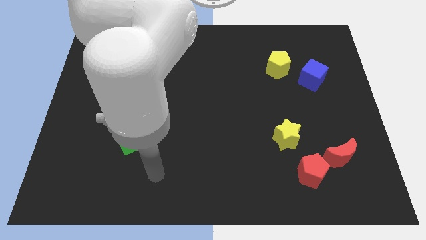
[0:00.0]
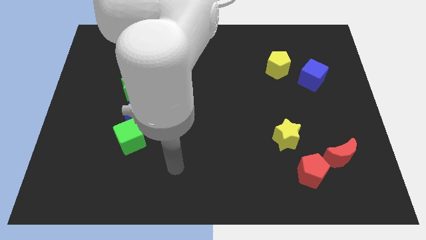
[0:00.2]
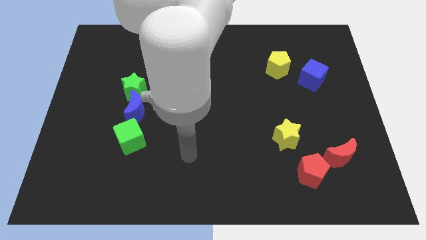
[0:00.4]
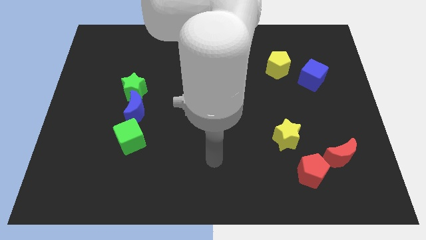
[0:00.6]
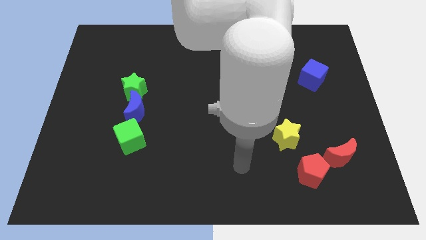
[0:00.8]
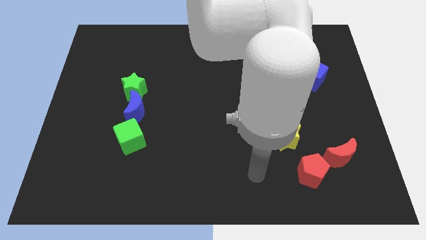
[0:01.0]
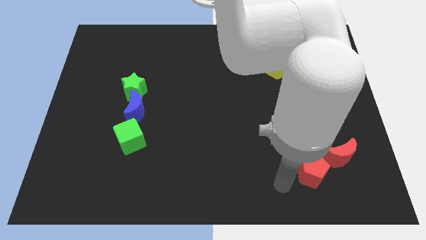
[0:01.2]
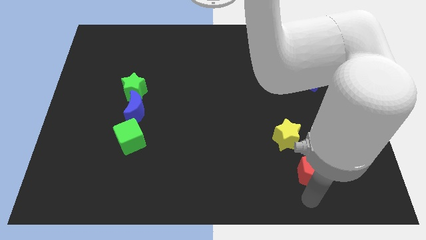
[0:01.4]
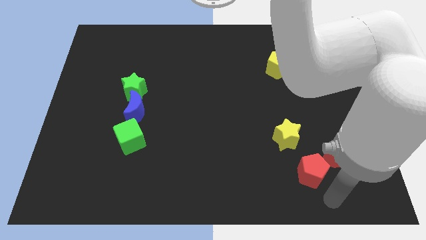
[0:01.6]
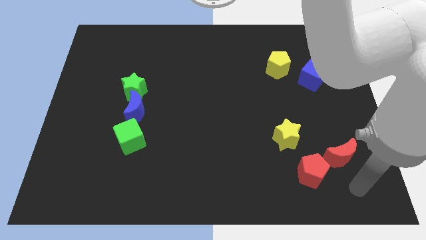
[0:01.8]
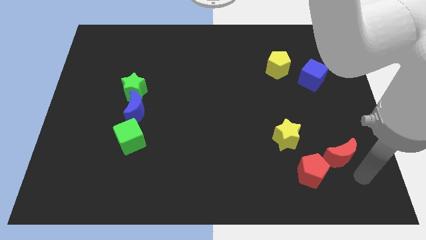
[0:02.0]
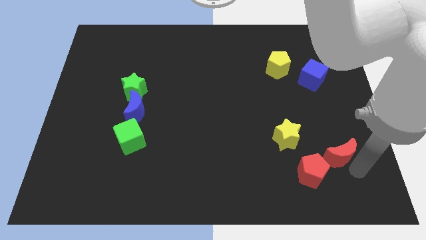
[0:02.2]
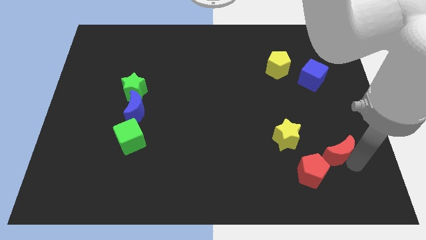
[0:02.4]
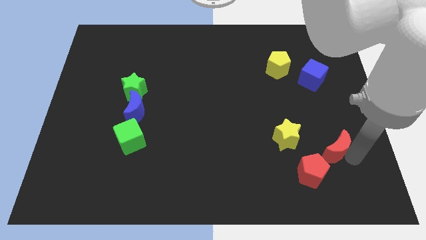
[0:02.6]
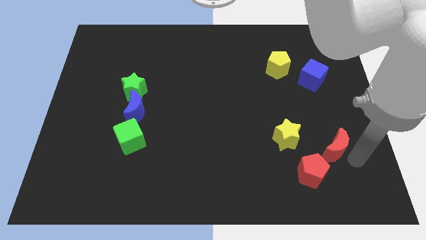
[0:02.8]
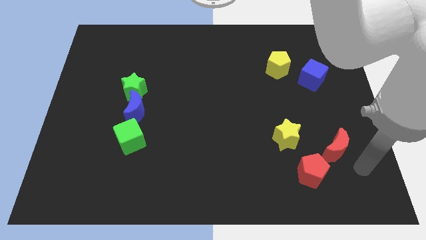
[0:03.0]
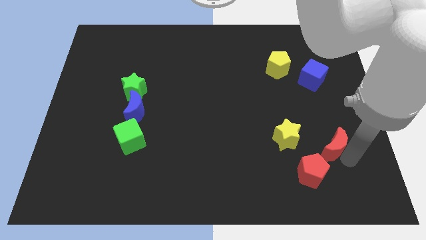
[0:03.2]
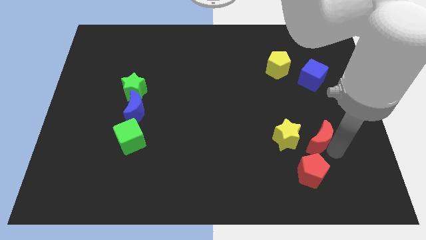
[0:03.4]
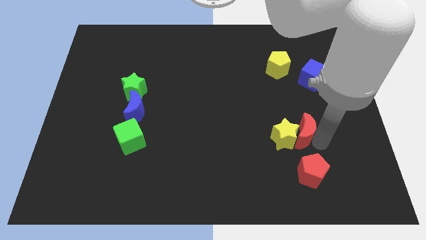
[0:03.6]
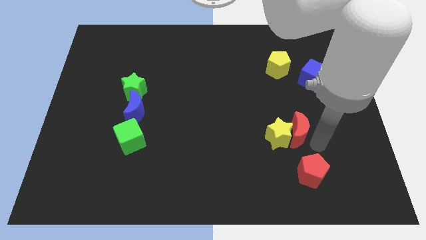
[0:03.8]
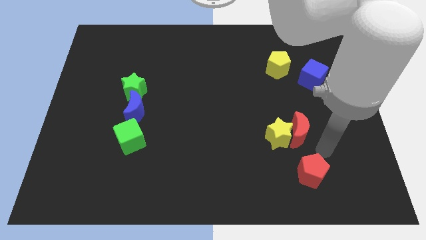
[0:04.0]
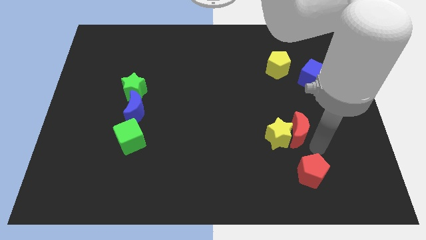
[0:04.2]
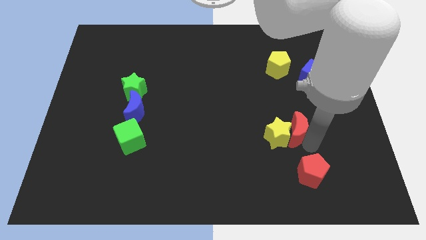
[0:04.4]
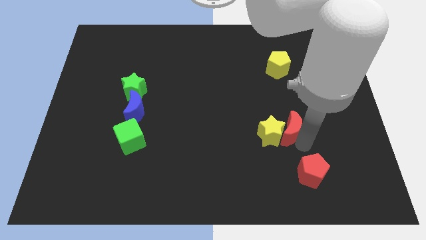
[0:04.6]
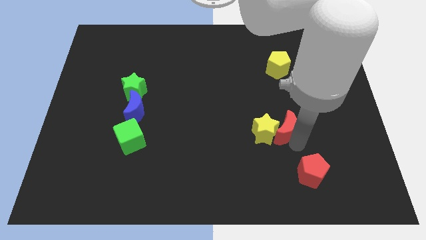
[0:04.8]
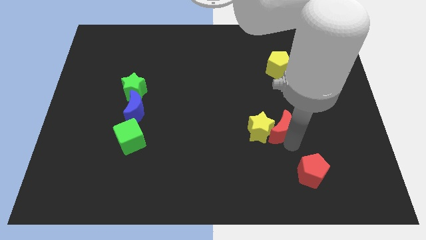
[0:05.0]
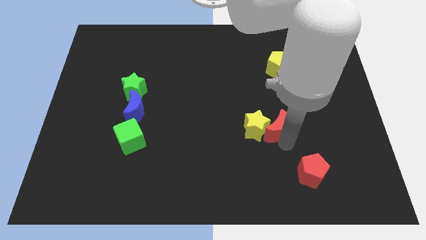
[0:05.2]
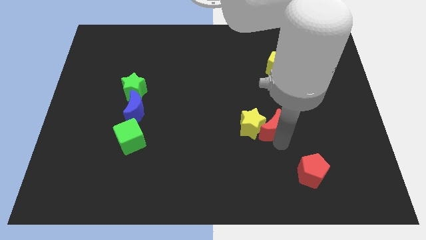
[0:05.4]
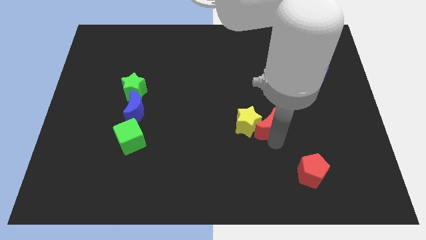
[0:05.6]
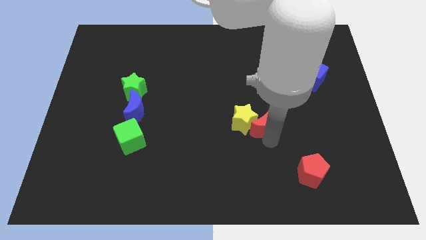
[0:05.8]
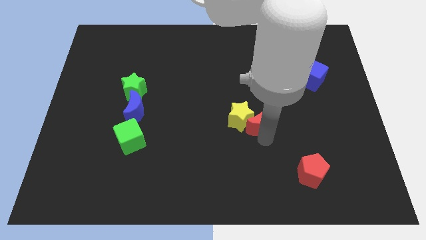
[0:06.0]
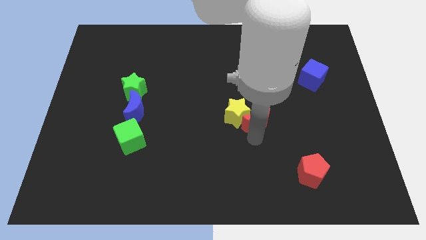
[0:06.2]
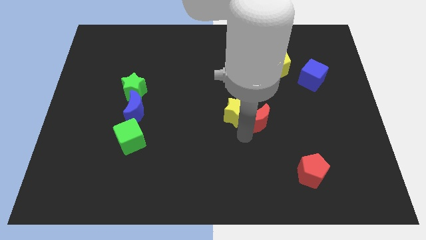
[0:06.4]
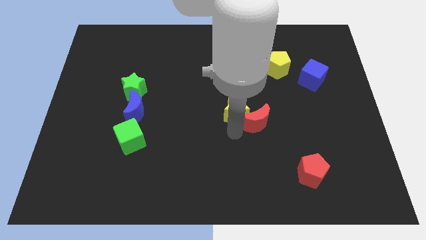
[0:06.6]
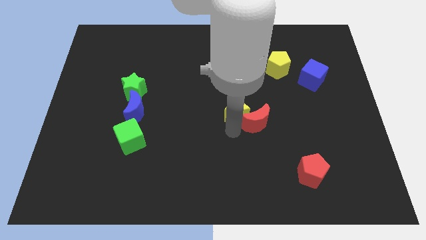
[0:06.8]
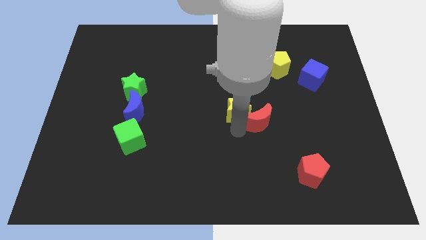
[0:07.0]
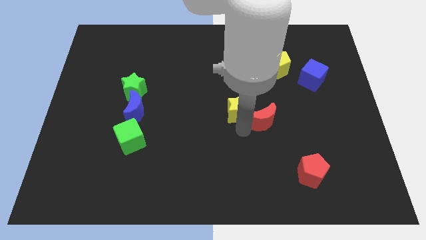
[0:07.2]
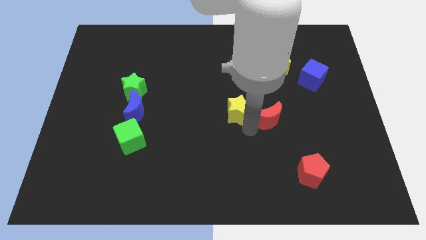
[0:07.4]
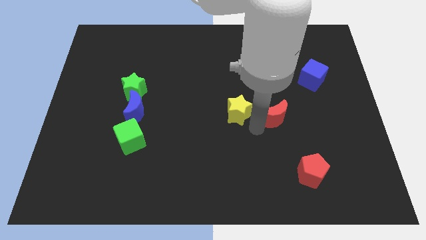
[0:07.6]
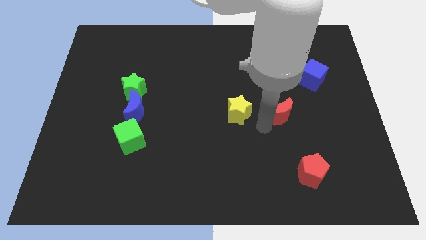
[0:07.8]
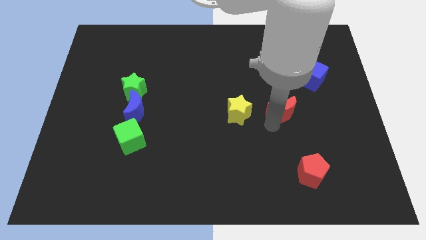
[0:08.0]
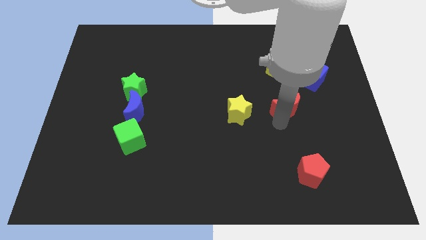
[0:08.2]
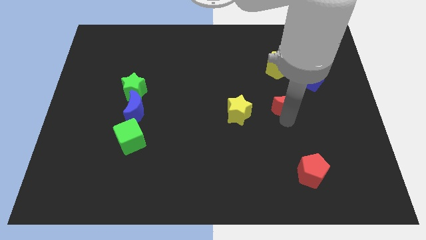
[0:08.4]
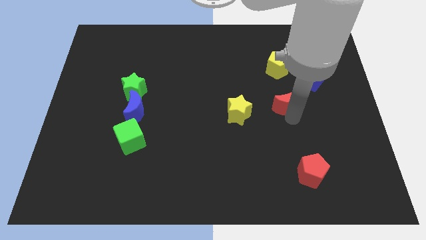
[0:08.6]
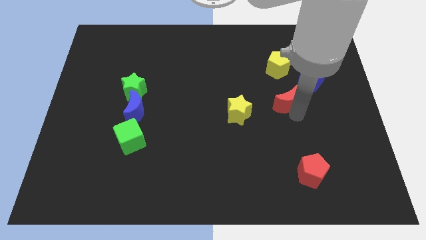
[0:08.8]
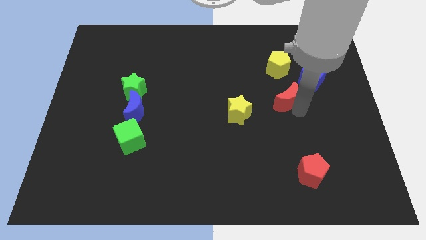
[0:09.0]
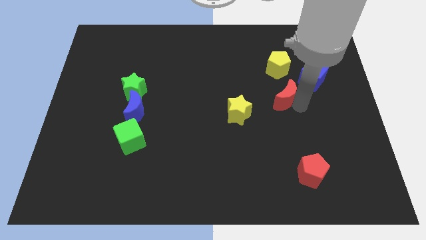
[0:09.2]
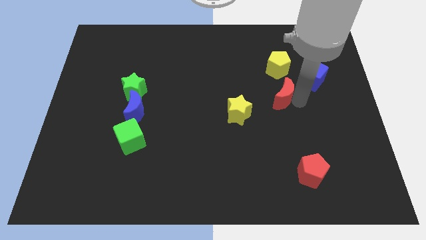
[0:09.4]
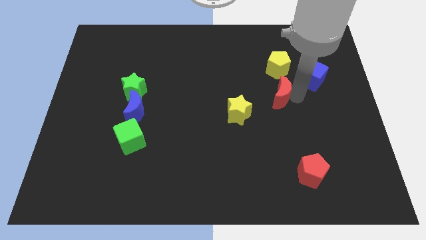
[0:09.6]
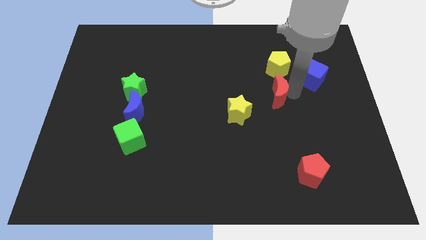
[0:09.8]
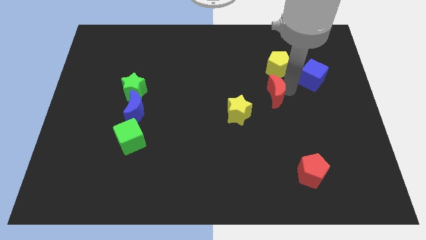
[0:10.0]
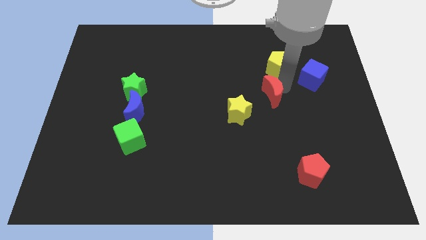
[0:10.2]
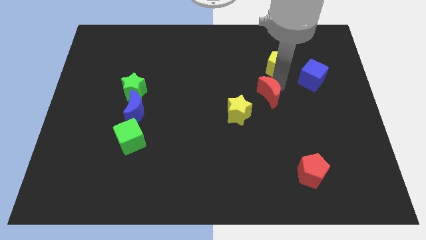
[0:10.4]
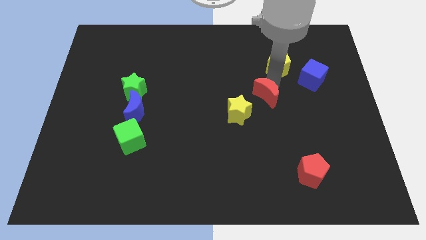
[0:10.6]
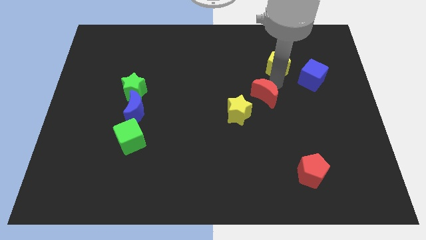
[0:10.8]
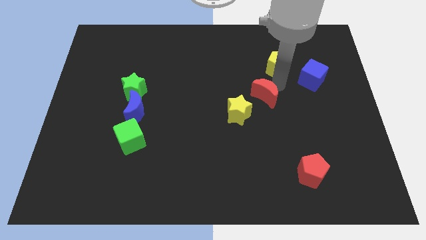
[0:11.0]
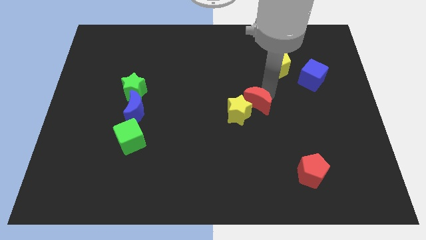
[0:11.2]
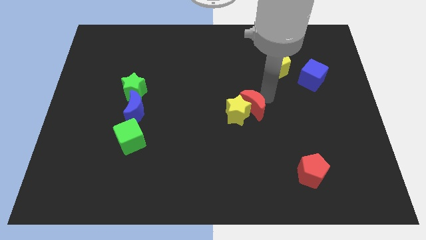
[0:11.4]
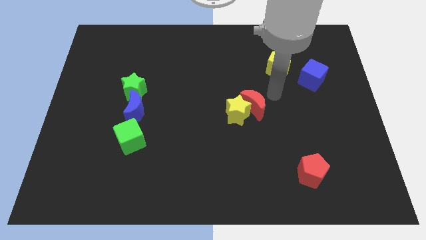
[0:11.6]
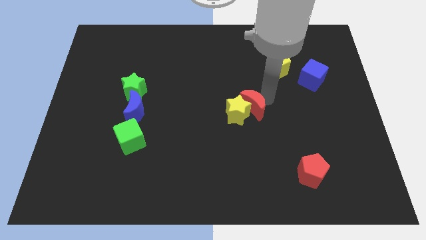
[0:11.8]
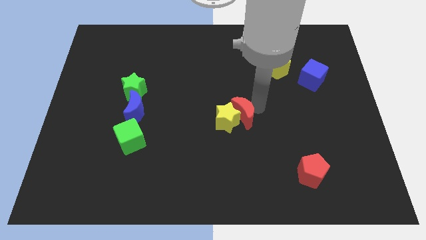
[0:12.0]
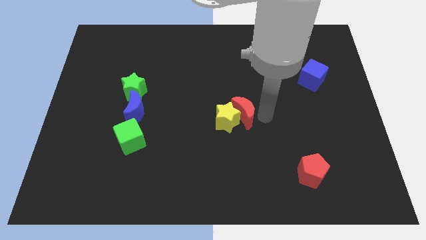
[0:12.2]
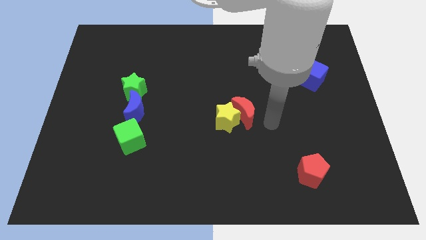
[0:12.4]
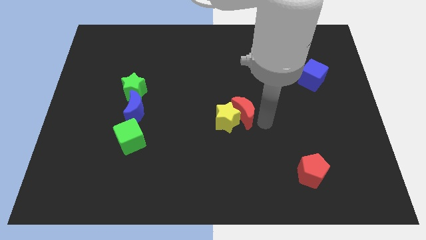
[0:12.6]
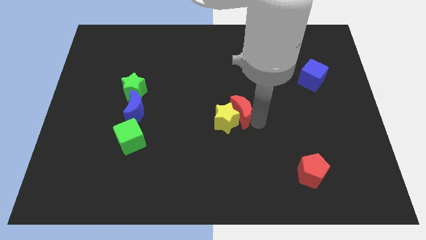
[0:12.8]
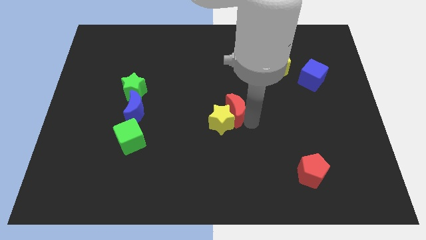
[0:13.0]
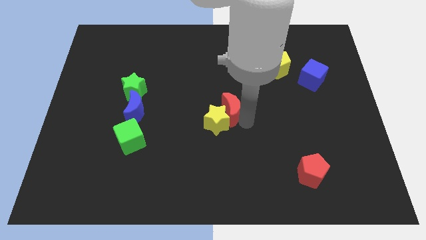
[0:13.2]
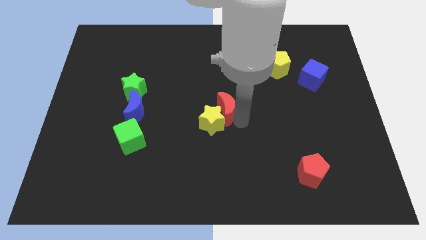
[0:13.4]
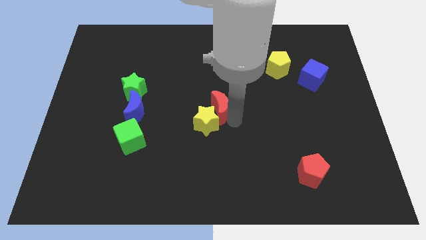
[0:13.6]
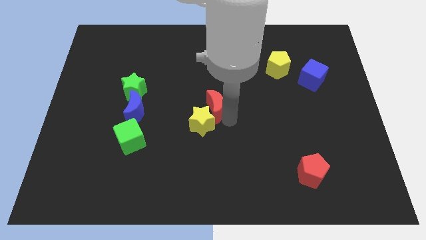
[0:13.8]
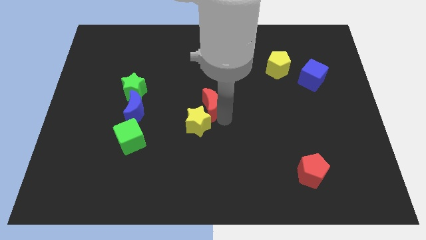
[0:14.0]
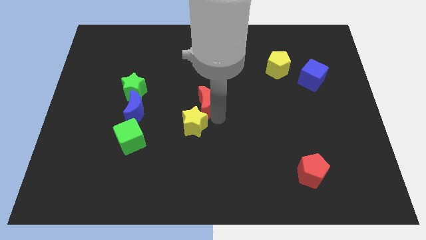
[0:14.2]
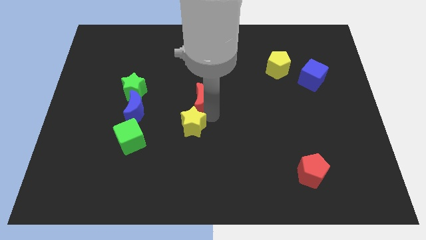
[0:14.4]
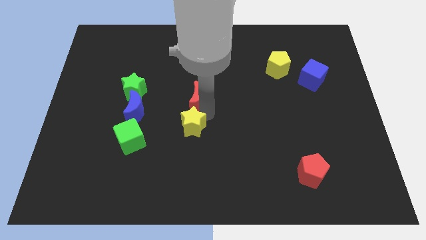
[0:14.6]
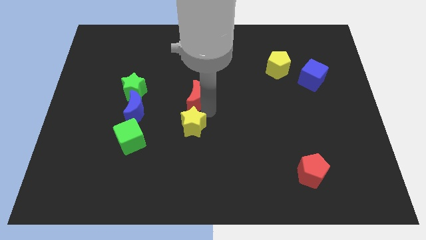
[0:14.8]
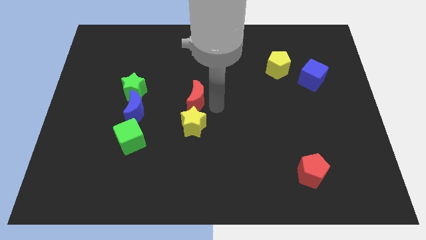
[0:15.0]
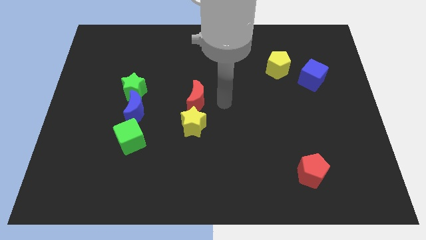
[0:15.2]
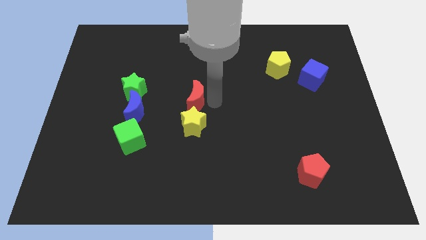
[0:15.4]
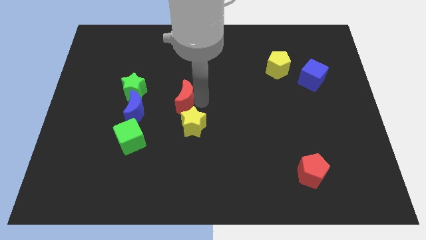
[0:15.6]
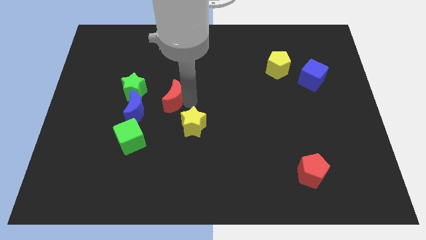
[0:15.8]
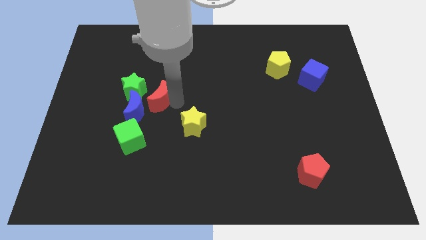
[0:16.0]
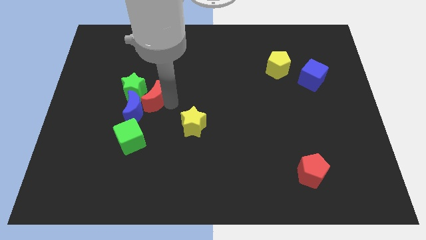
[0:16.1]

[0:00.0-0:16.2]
push the red moon close to the blue moon
